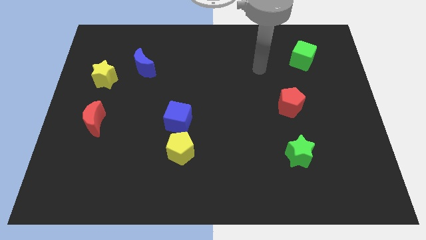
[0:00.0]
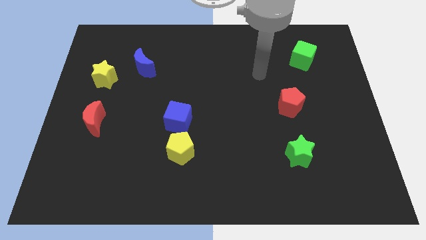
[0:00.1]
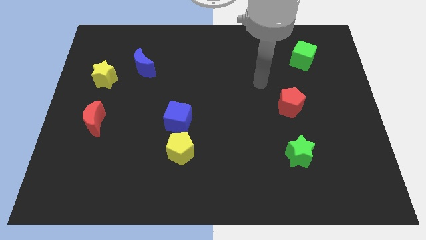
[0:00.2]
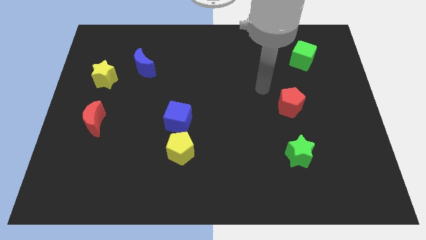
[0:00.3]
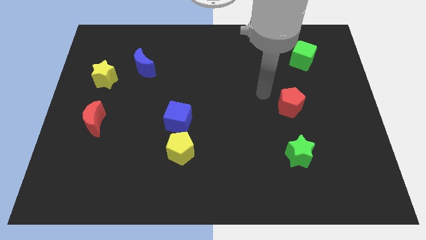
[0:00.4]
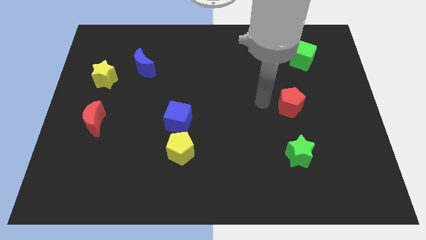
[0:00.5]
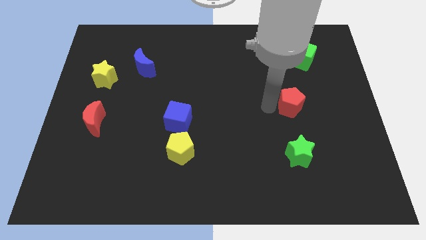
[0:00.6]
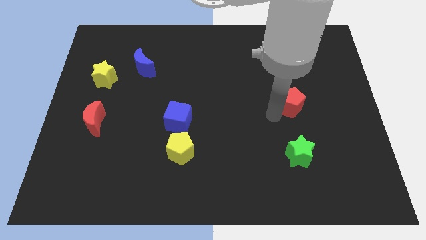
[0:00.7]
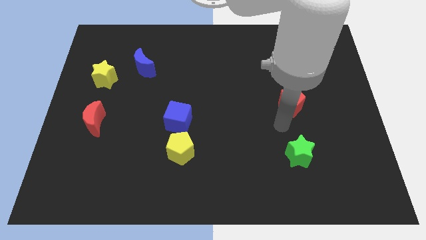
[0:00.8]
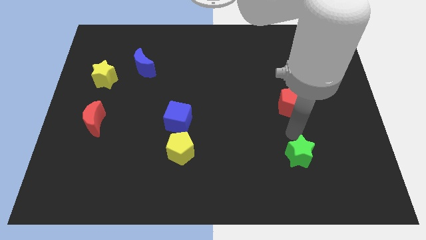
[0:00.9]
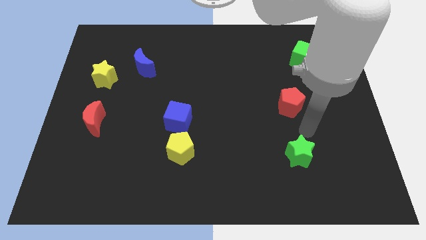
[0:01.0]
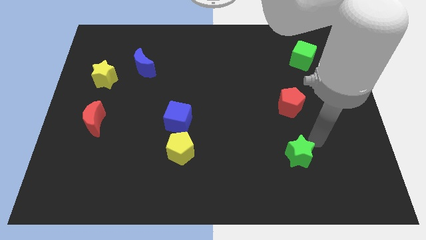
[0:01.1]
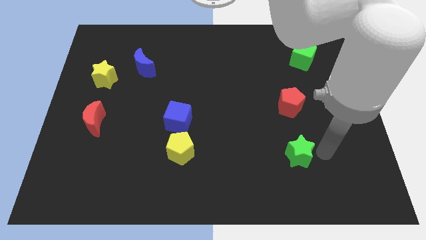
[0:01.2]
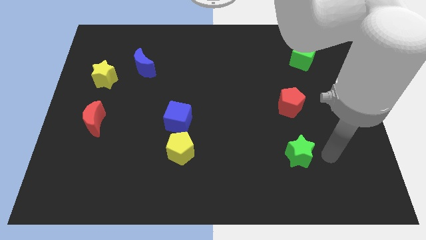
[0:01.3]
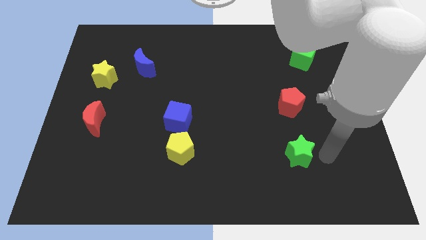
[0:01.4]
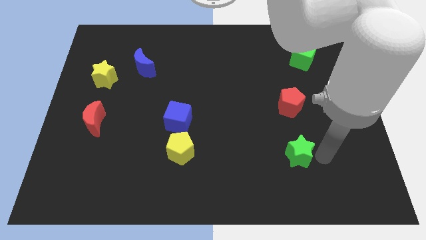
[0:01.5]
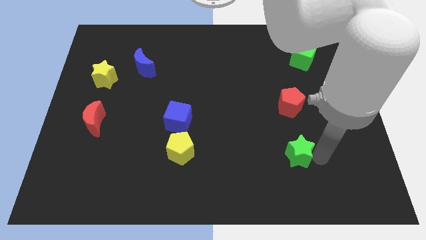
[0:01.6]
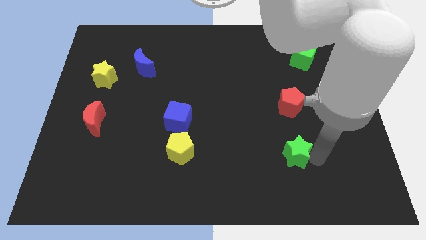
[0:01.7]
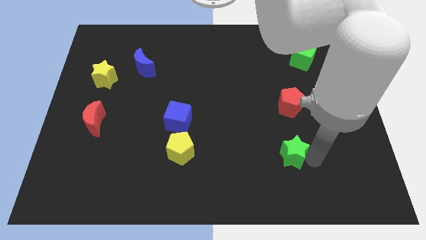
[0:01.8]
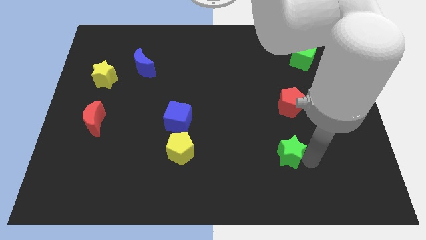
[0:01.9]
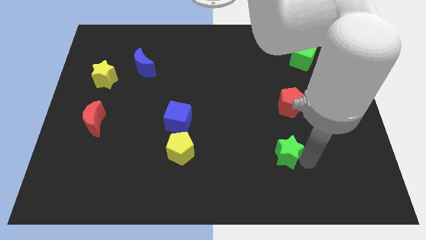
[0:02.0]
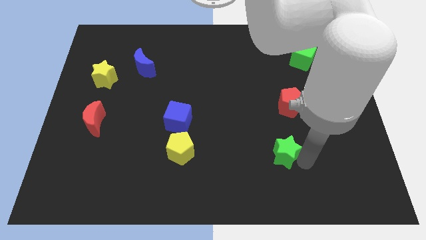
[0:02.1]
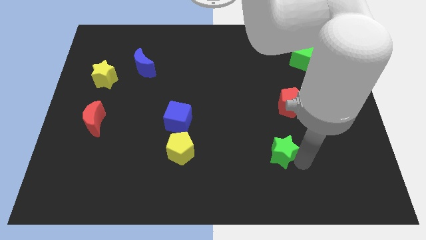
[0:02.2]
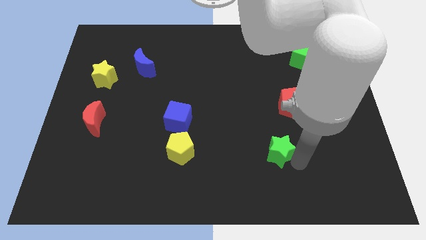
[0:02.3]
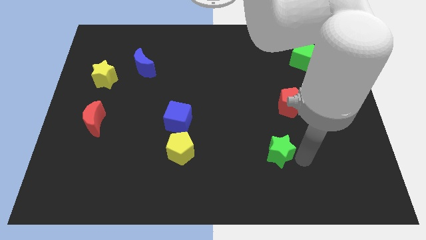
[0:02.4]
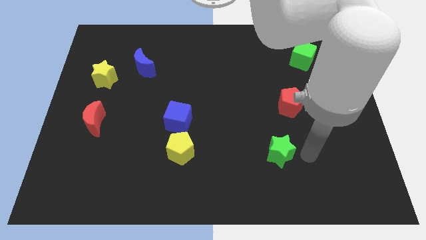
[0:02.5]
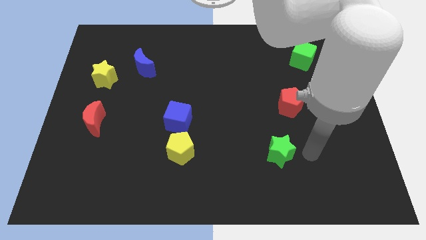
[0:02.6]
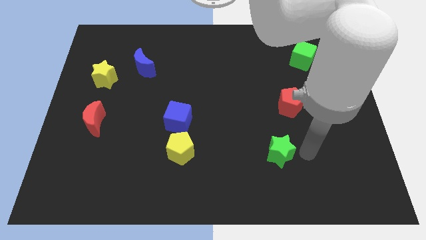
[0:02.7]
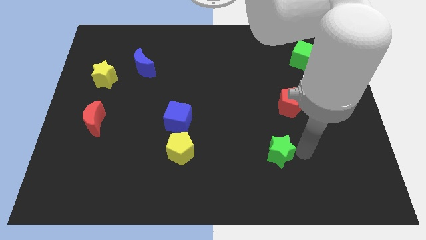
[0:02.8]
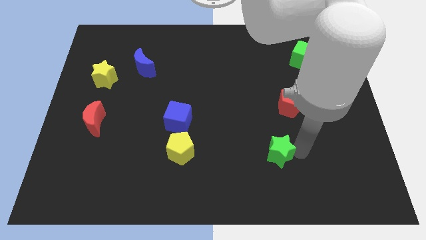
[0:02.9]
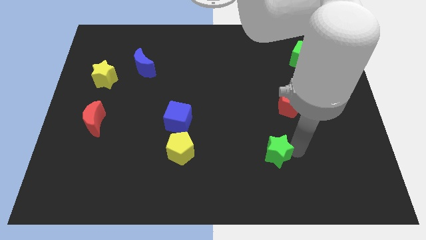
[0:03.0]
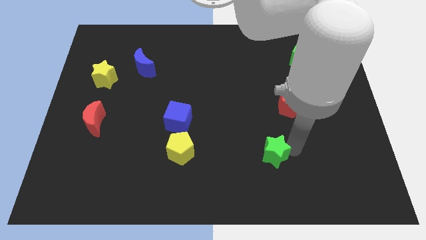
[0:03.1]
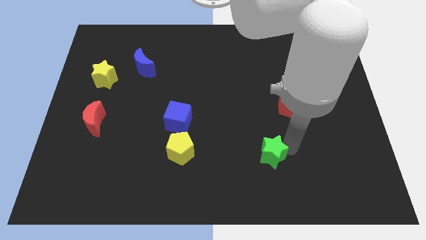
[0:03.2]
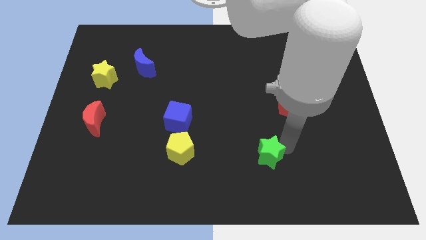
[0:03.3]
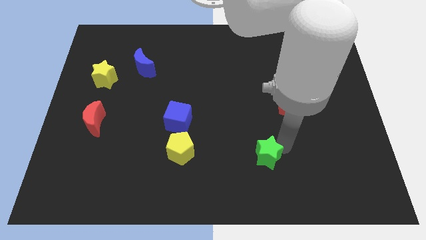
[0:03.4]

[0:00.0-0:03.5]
slide the green star somewhat to the left

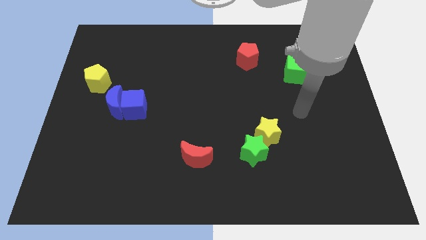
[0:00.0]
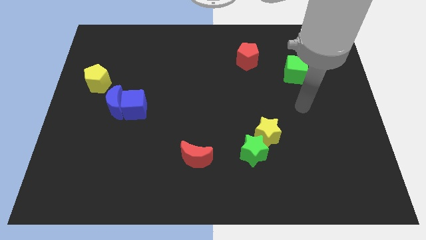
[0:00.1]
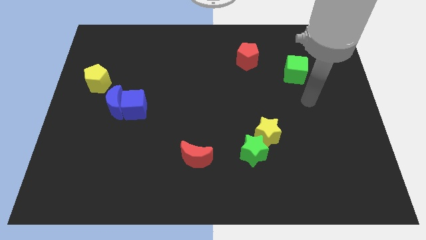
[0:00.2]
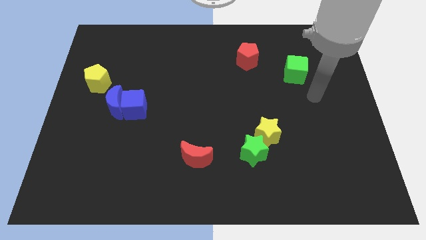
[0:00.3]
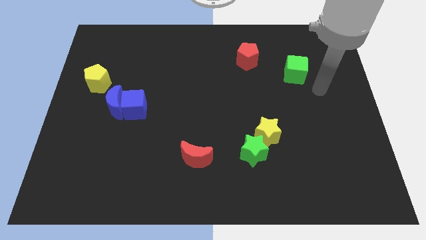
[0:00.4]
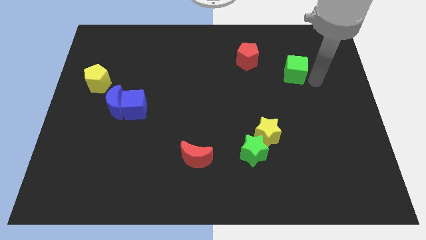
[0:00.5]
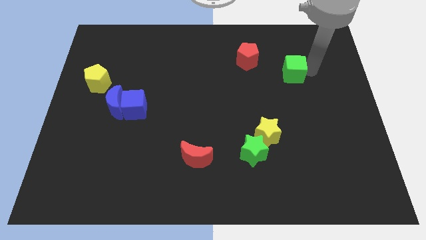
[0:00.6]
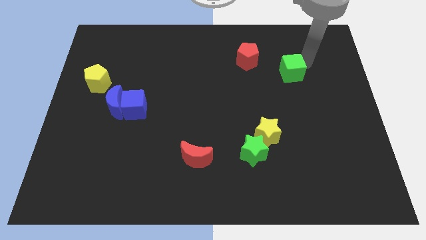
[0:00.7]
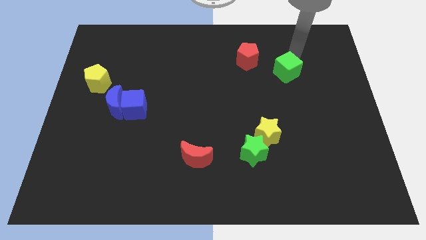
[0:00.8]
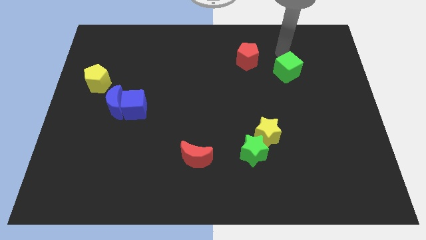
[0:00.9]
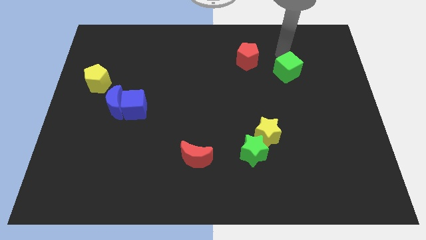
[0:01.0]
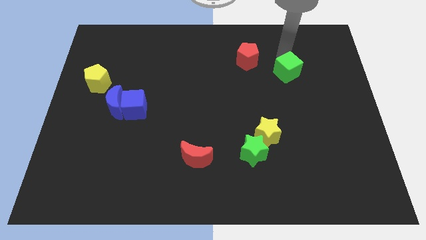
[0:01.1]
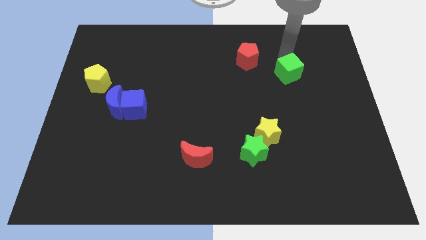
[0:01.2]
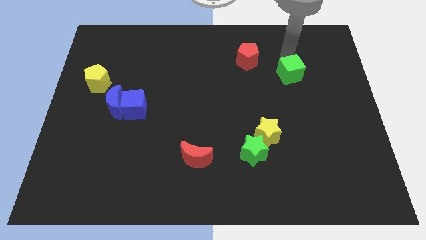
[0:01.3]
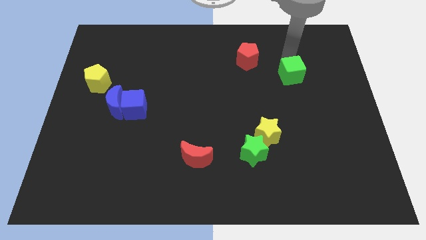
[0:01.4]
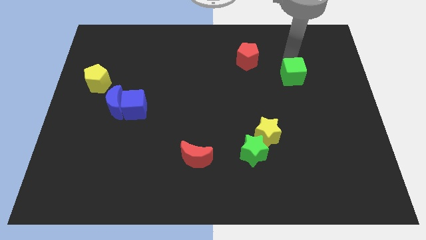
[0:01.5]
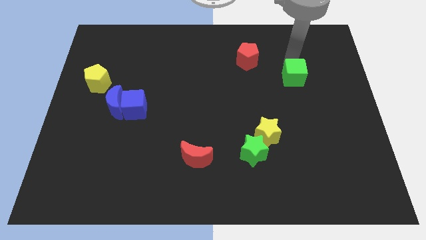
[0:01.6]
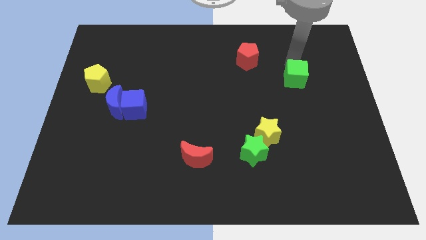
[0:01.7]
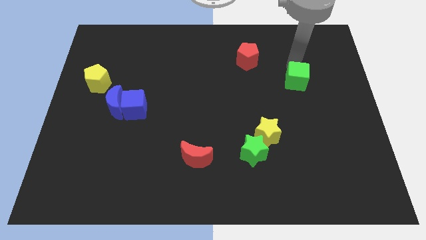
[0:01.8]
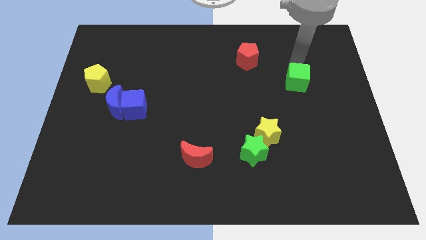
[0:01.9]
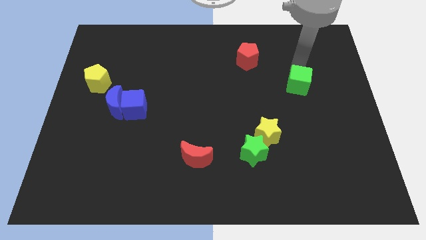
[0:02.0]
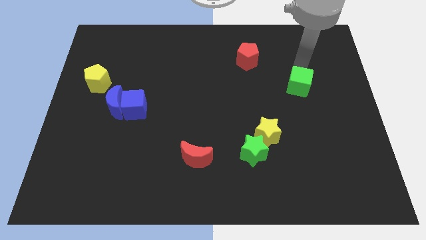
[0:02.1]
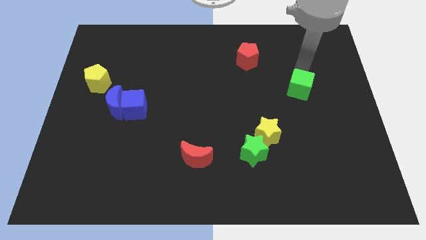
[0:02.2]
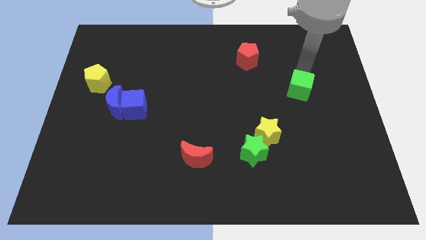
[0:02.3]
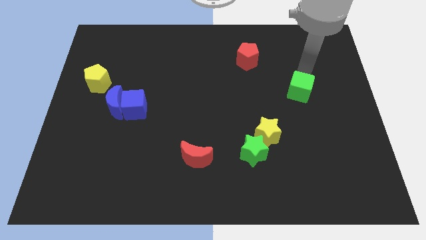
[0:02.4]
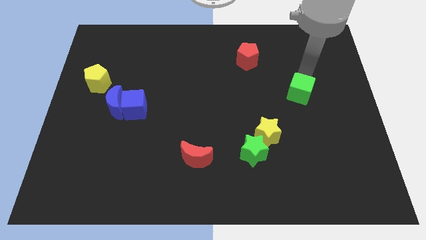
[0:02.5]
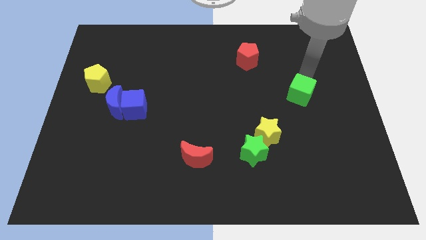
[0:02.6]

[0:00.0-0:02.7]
slide the green cube slightly down

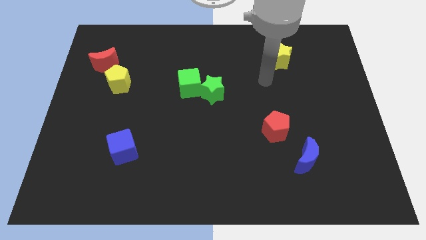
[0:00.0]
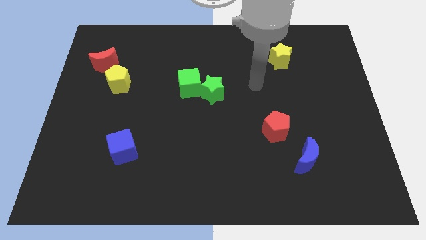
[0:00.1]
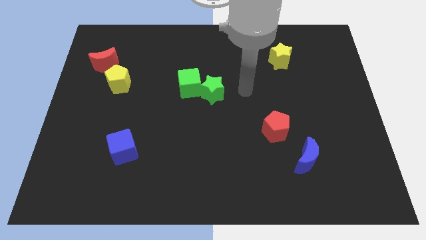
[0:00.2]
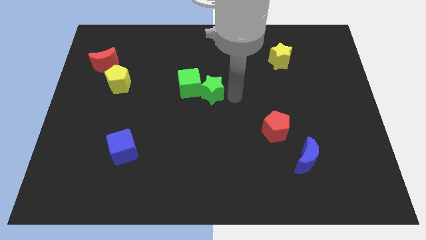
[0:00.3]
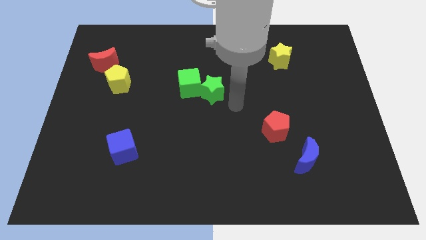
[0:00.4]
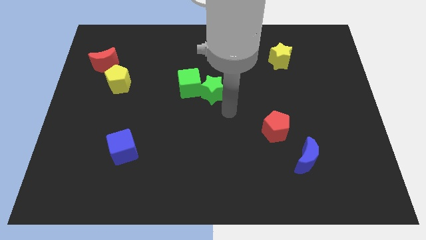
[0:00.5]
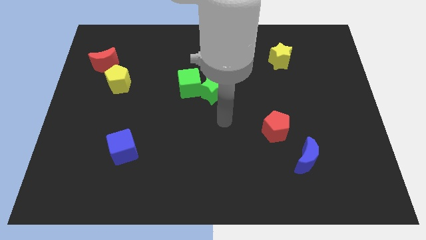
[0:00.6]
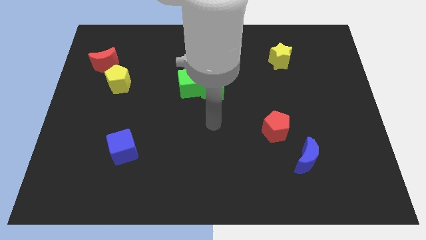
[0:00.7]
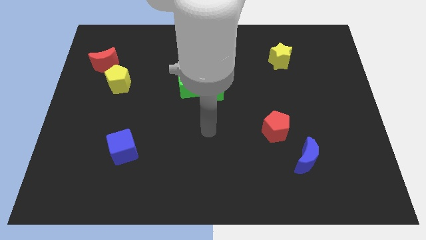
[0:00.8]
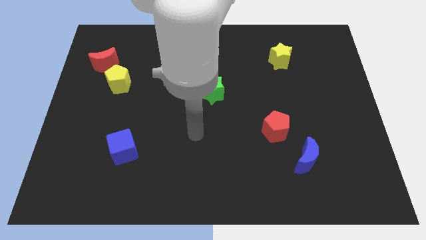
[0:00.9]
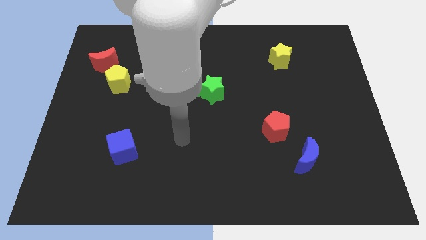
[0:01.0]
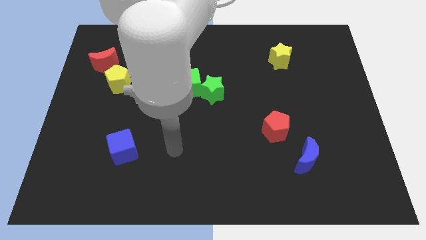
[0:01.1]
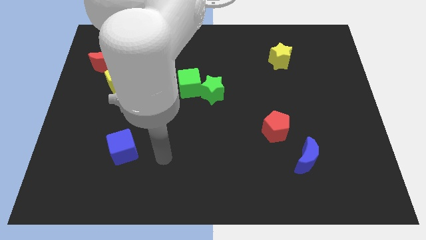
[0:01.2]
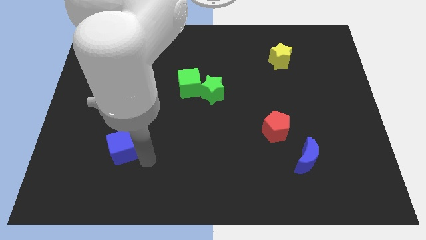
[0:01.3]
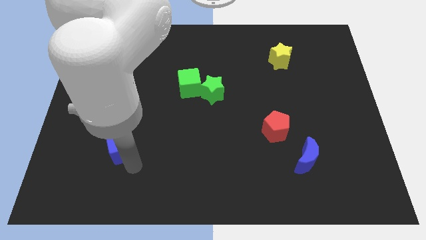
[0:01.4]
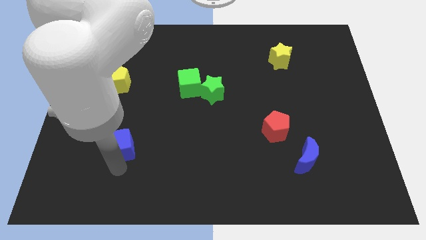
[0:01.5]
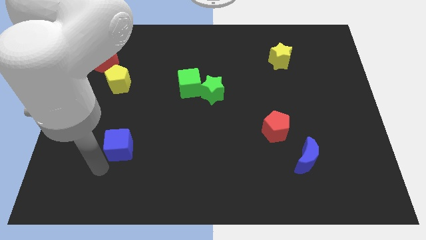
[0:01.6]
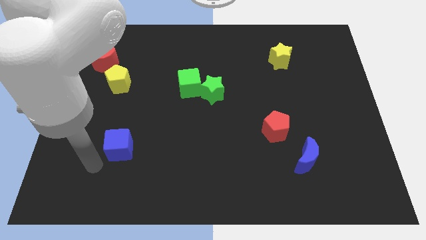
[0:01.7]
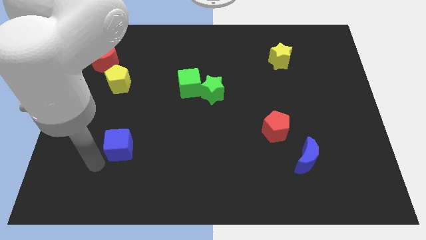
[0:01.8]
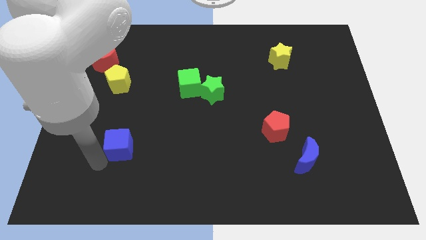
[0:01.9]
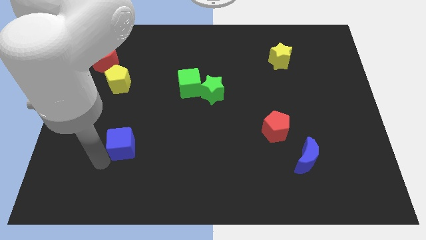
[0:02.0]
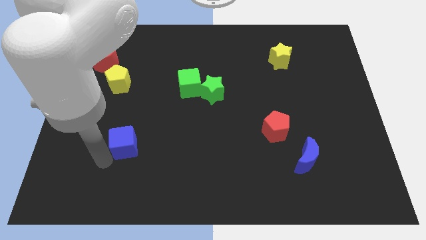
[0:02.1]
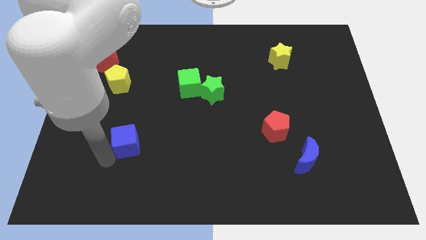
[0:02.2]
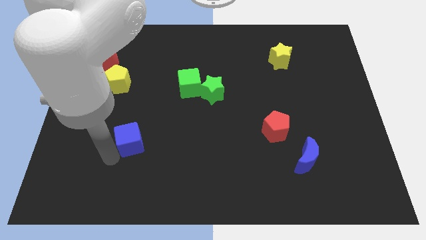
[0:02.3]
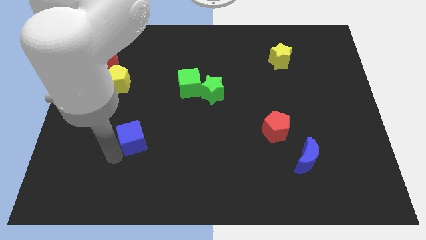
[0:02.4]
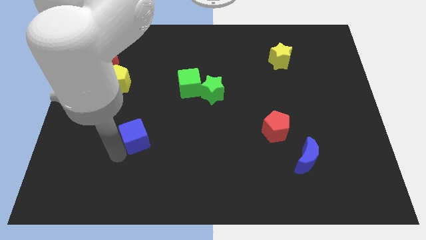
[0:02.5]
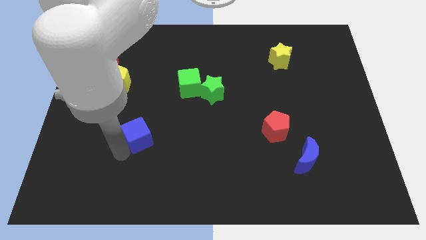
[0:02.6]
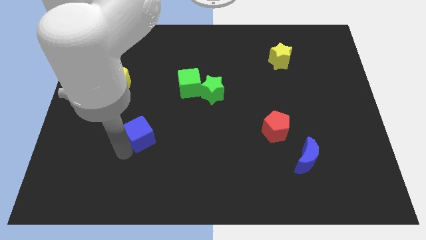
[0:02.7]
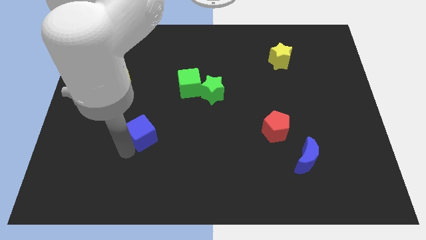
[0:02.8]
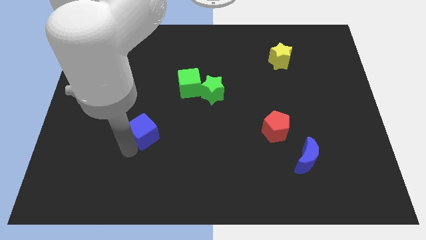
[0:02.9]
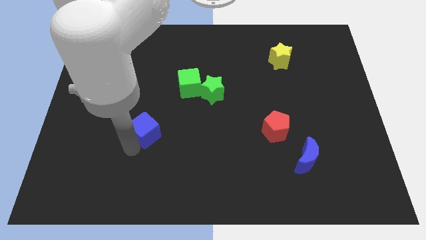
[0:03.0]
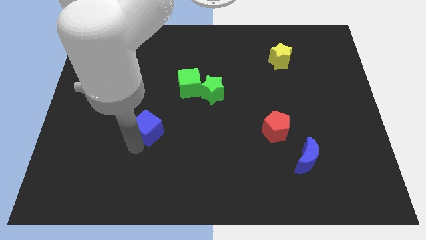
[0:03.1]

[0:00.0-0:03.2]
slightly slide the blue cube diagonally up and to the right
